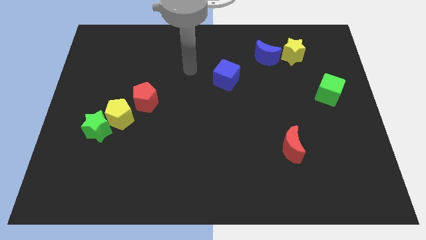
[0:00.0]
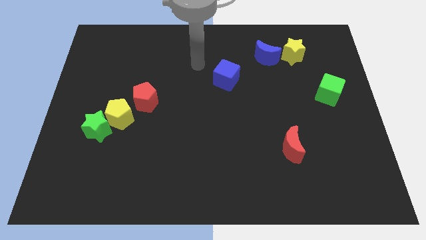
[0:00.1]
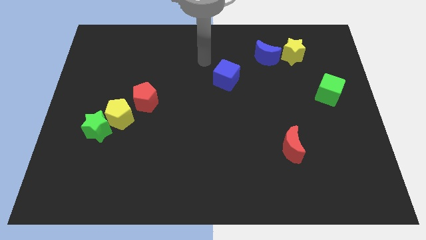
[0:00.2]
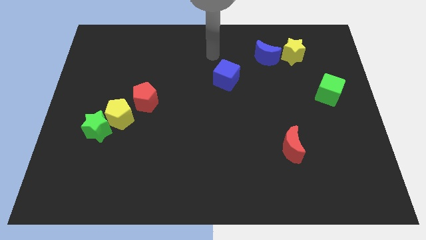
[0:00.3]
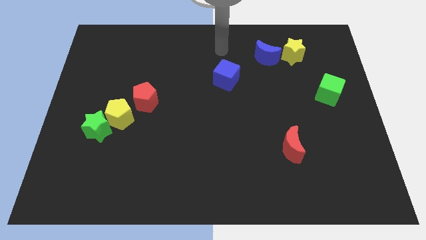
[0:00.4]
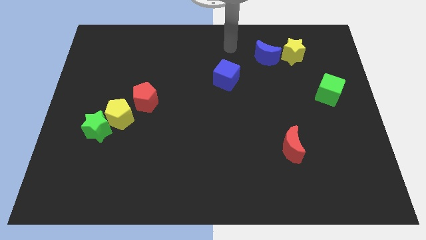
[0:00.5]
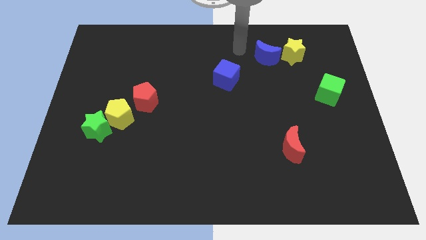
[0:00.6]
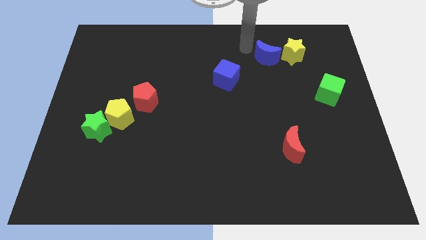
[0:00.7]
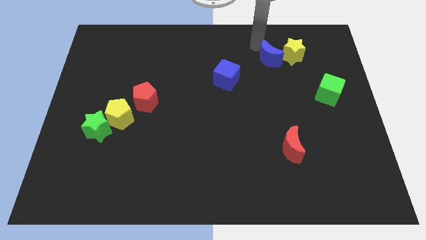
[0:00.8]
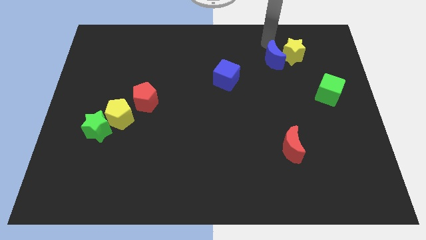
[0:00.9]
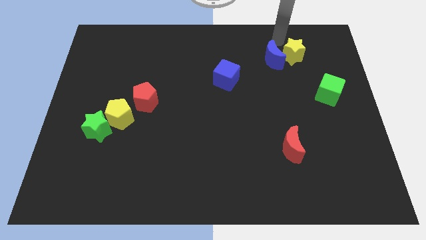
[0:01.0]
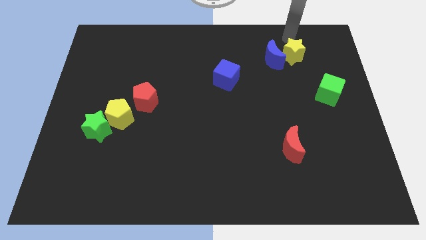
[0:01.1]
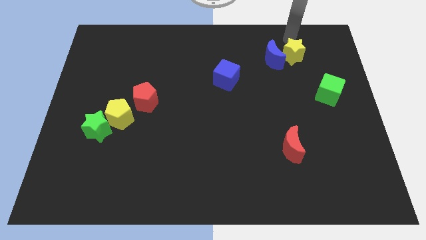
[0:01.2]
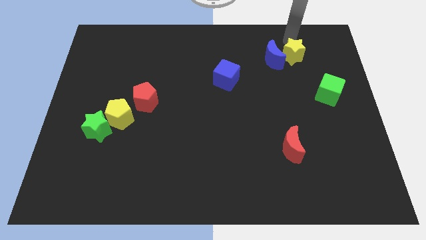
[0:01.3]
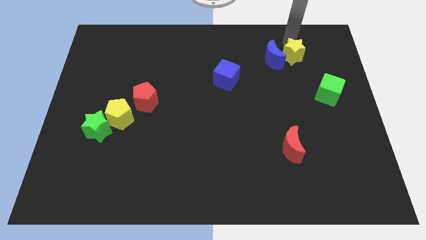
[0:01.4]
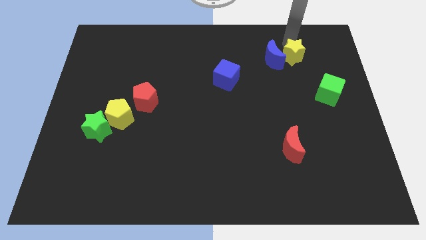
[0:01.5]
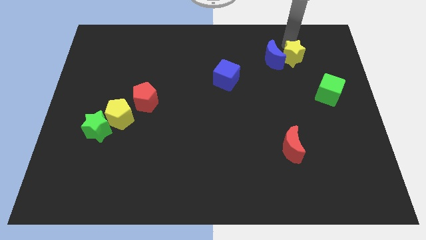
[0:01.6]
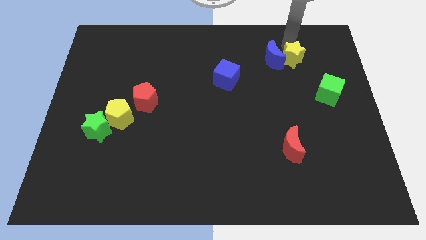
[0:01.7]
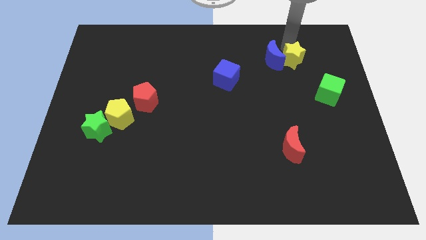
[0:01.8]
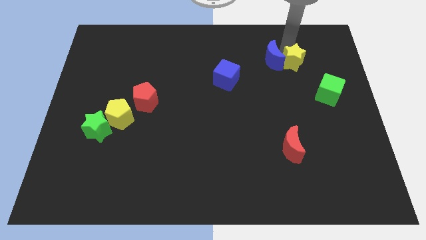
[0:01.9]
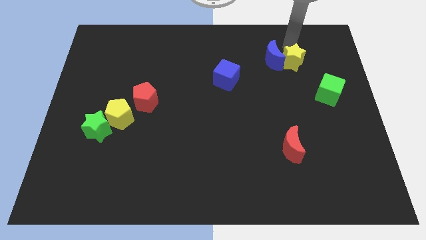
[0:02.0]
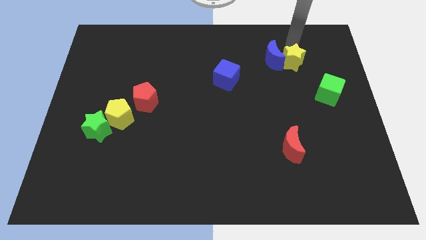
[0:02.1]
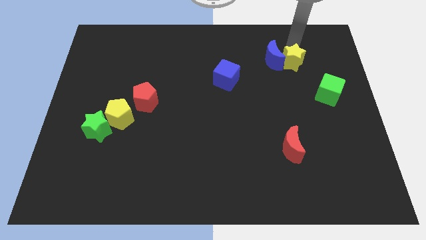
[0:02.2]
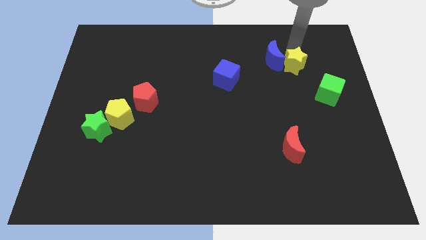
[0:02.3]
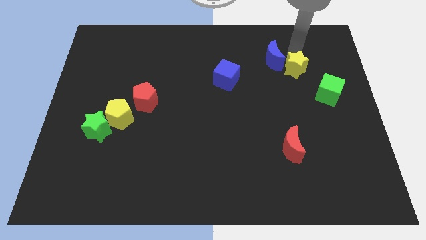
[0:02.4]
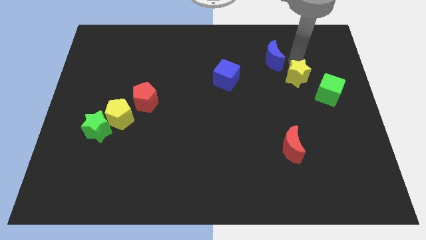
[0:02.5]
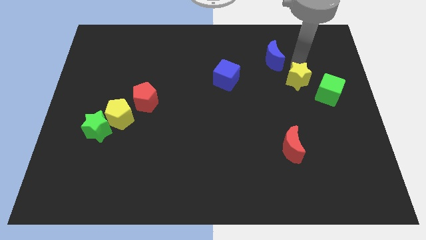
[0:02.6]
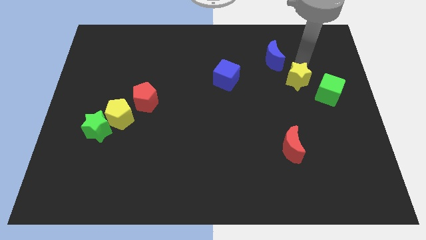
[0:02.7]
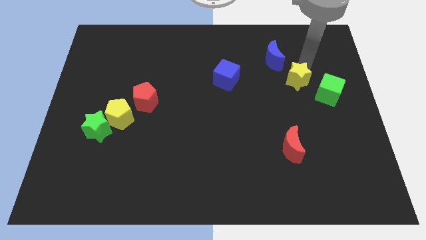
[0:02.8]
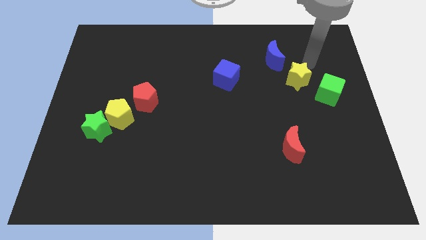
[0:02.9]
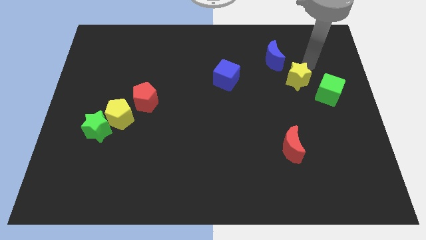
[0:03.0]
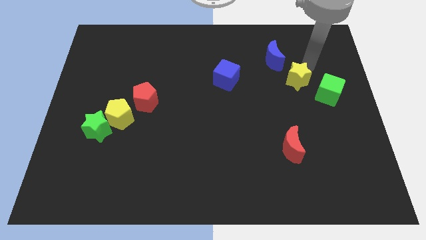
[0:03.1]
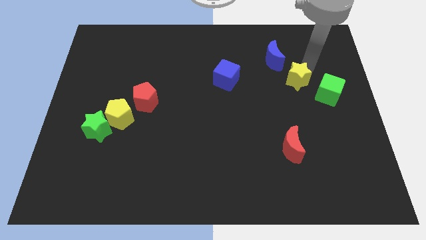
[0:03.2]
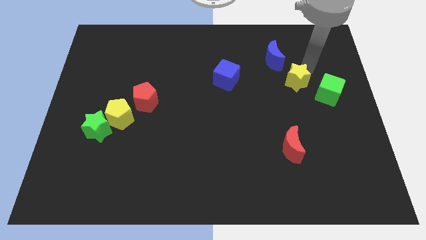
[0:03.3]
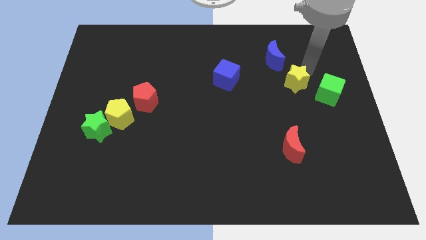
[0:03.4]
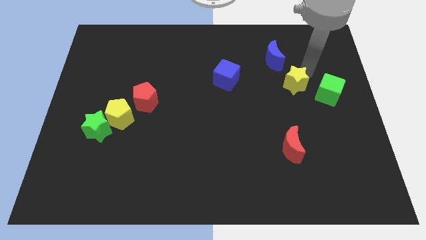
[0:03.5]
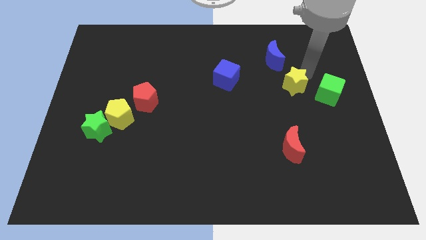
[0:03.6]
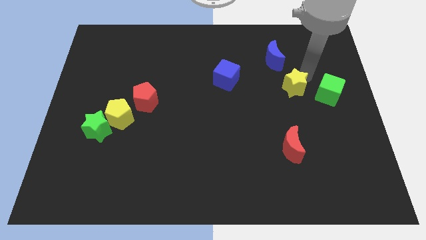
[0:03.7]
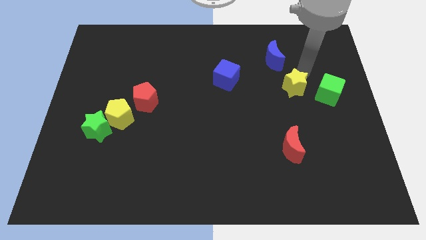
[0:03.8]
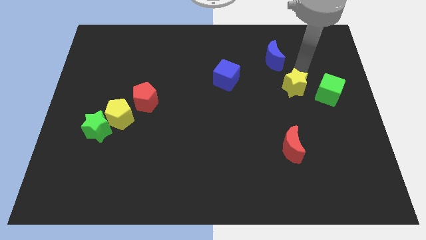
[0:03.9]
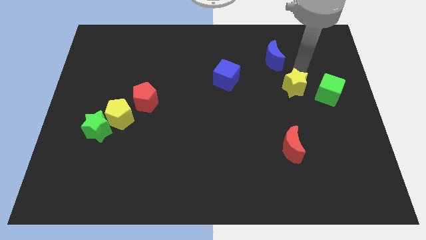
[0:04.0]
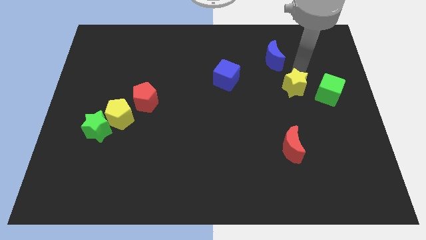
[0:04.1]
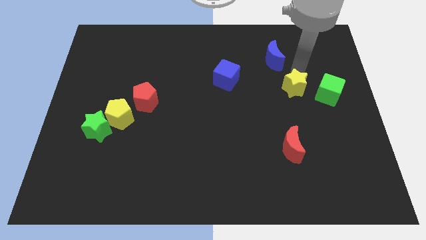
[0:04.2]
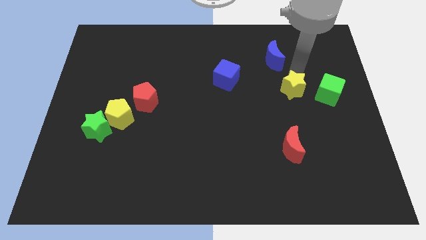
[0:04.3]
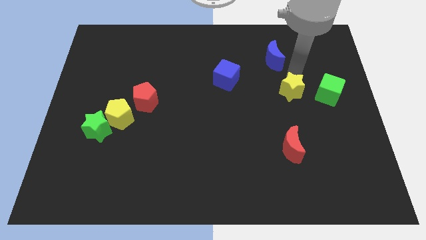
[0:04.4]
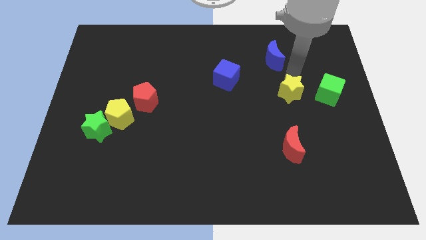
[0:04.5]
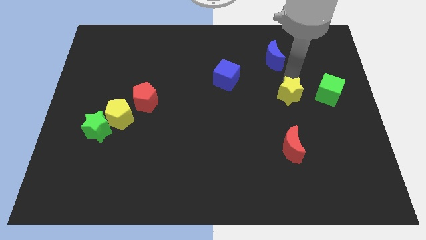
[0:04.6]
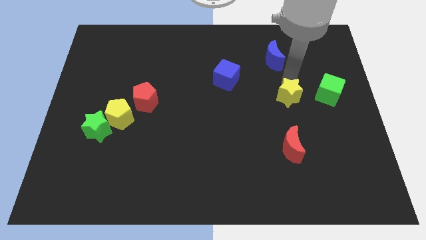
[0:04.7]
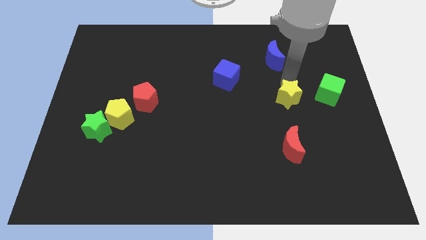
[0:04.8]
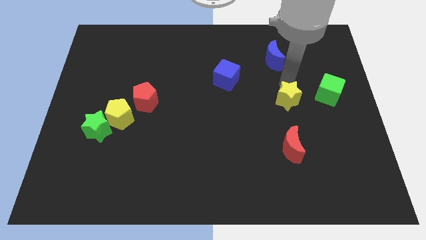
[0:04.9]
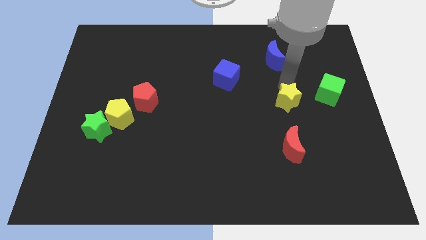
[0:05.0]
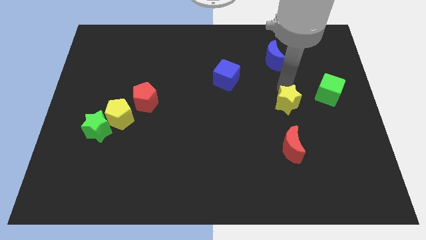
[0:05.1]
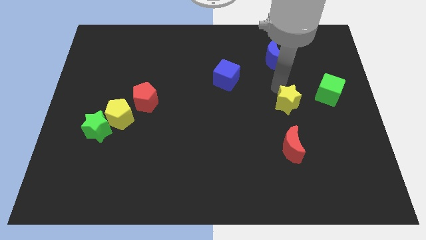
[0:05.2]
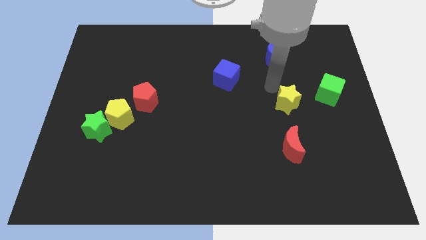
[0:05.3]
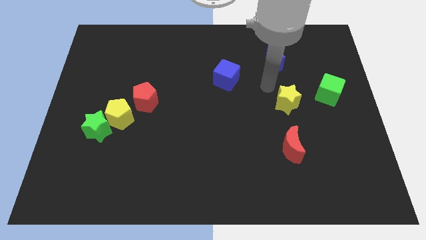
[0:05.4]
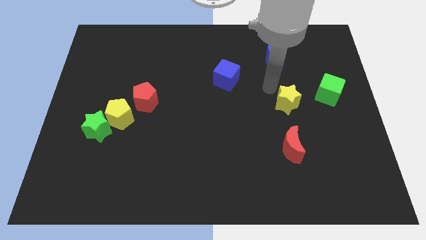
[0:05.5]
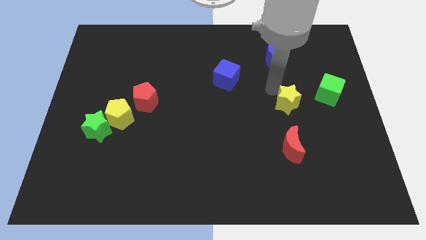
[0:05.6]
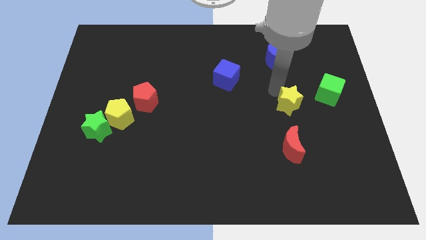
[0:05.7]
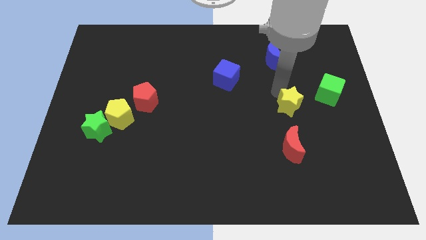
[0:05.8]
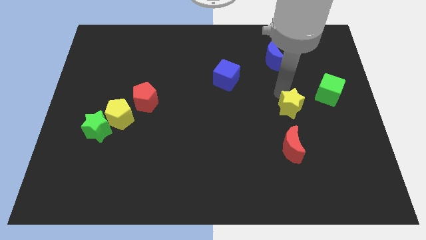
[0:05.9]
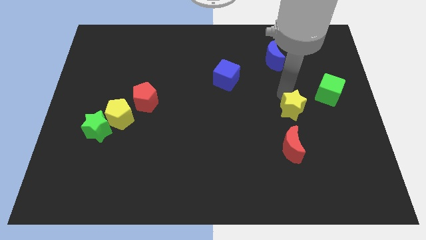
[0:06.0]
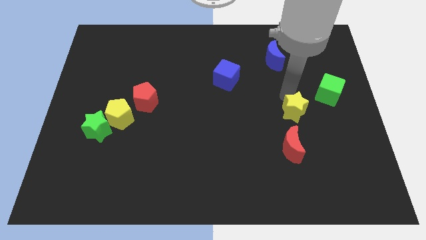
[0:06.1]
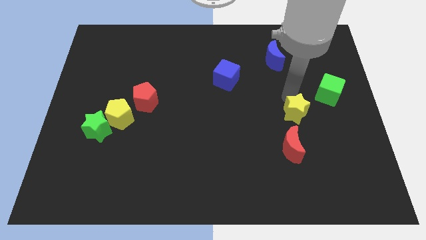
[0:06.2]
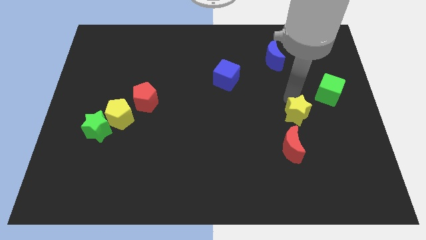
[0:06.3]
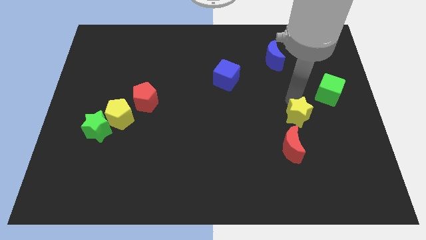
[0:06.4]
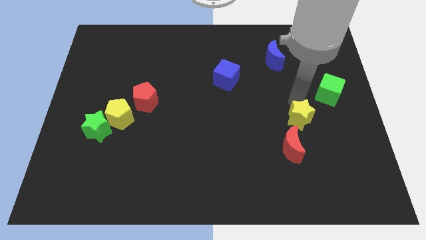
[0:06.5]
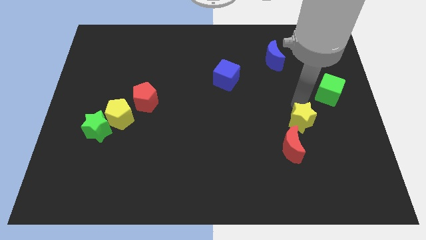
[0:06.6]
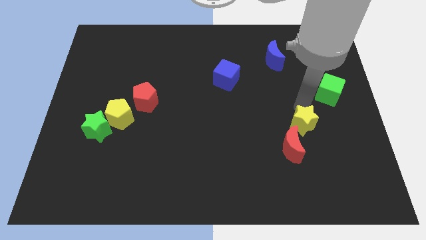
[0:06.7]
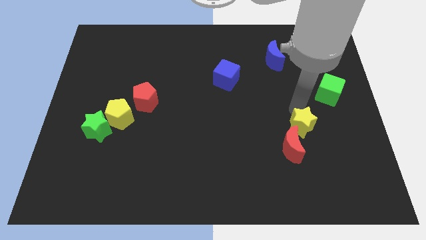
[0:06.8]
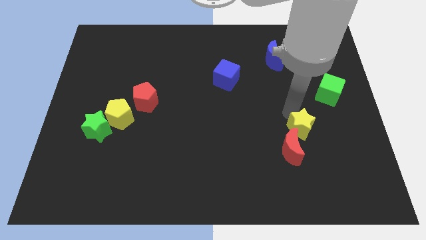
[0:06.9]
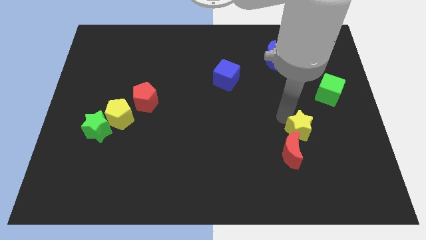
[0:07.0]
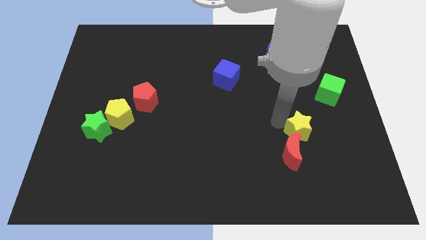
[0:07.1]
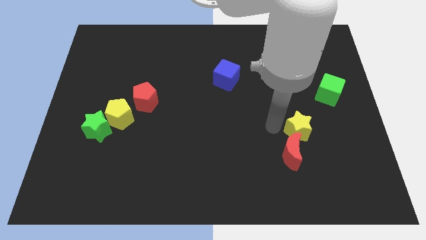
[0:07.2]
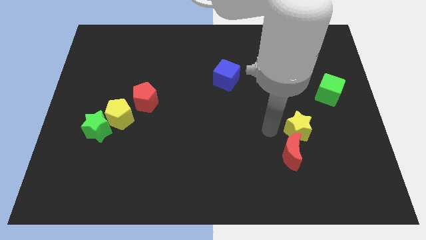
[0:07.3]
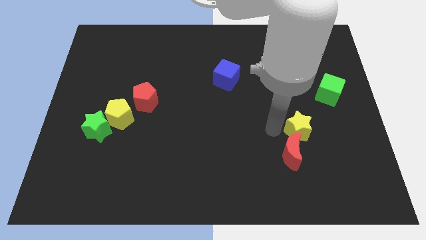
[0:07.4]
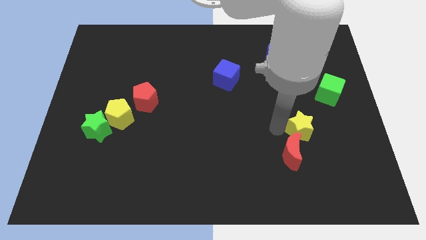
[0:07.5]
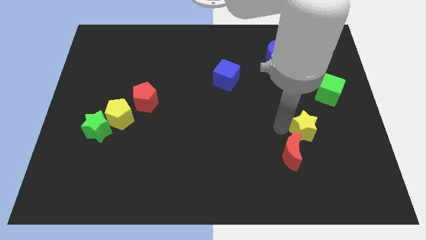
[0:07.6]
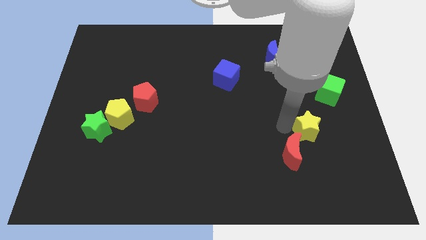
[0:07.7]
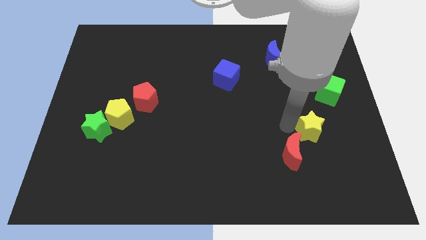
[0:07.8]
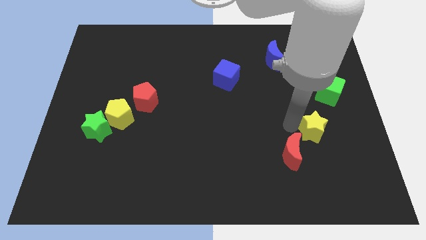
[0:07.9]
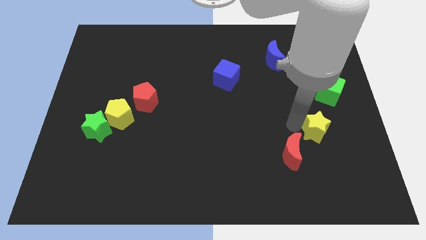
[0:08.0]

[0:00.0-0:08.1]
move the yellow star to the bottom of the green cube

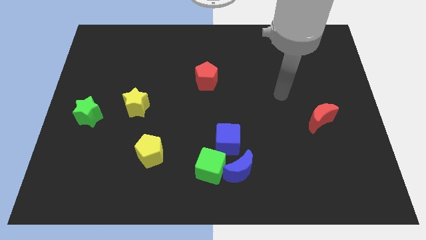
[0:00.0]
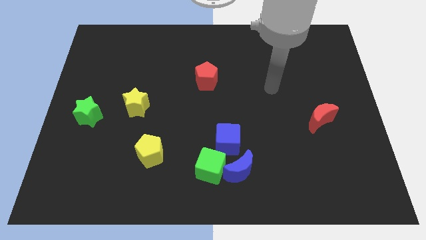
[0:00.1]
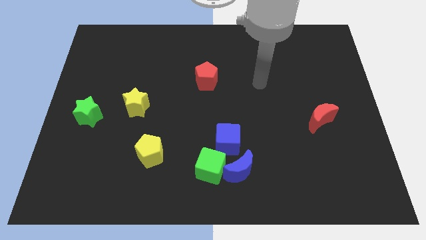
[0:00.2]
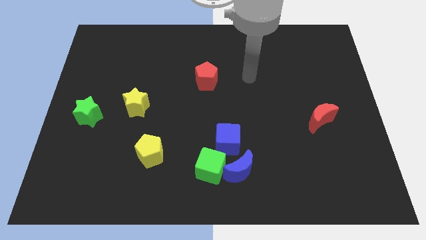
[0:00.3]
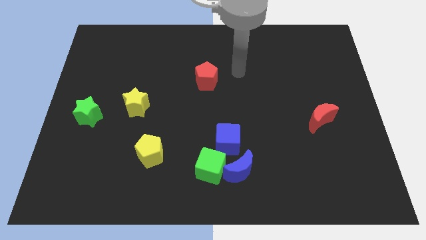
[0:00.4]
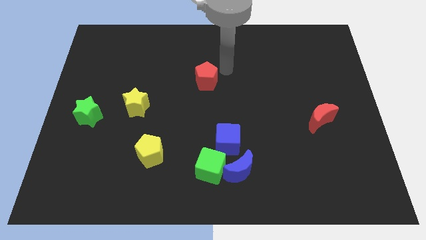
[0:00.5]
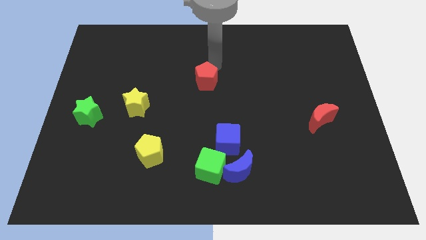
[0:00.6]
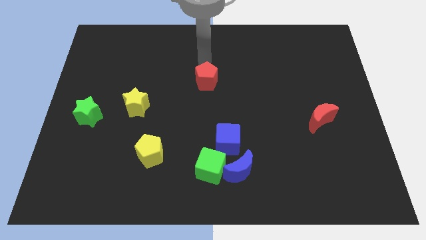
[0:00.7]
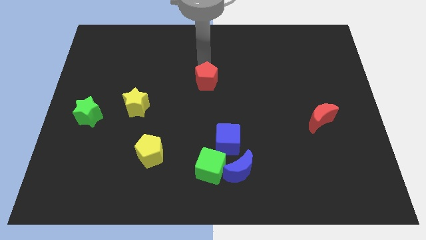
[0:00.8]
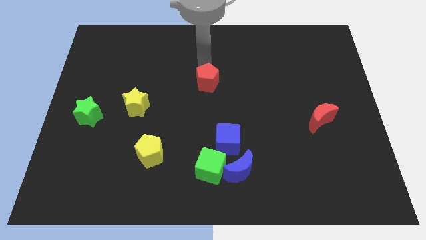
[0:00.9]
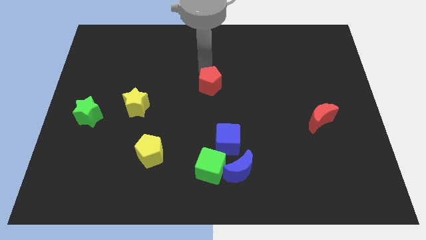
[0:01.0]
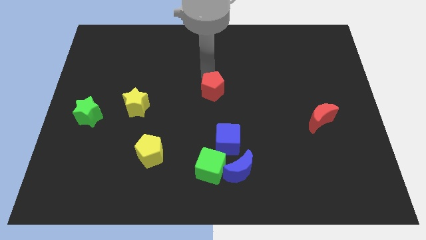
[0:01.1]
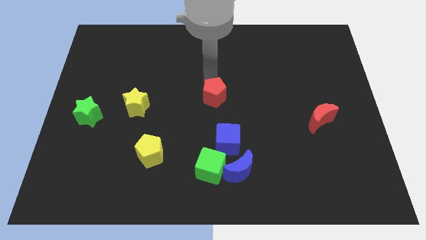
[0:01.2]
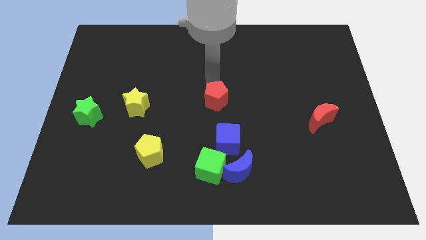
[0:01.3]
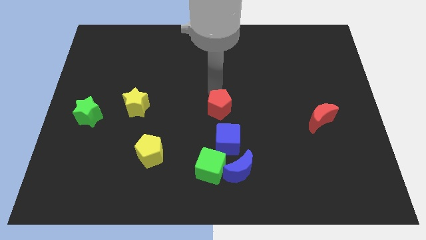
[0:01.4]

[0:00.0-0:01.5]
move the red pentagon to the top side of the green cube
